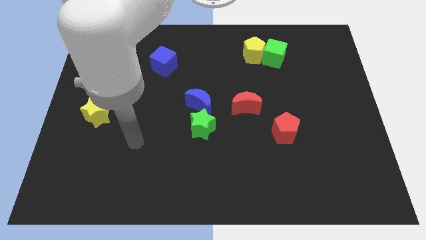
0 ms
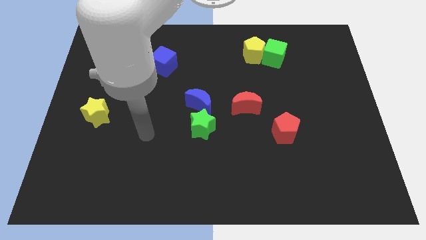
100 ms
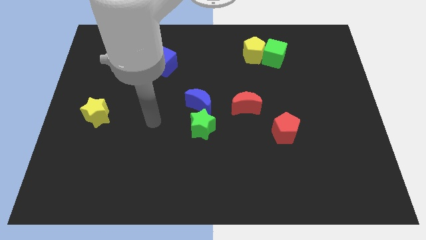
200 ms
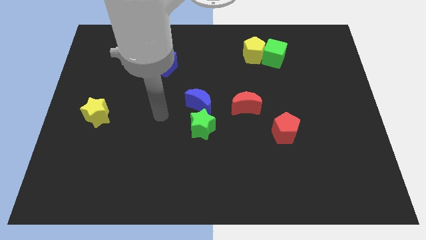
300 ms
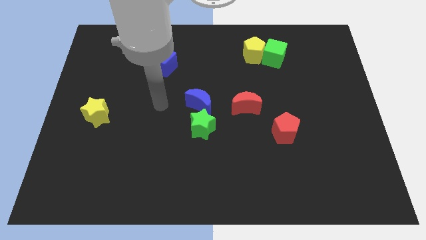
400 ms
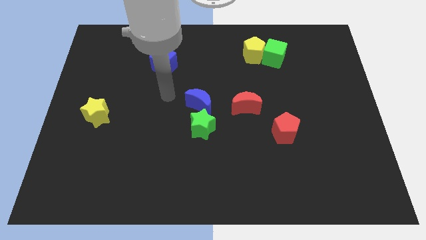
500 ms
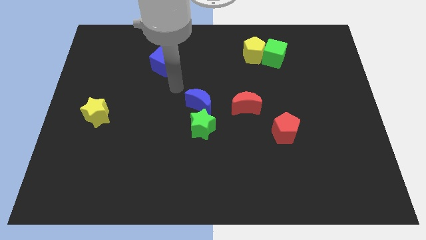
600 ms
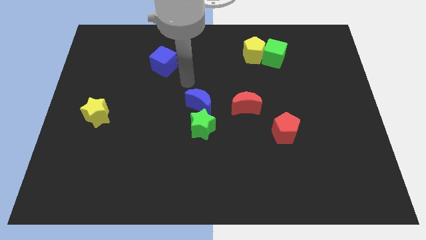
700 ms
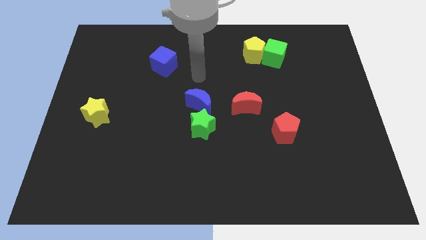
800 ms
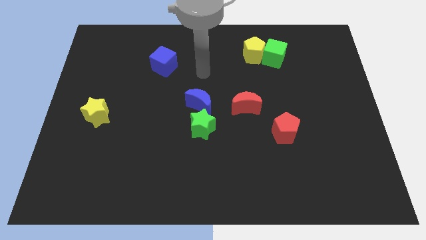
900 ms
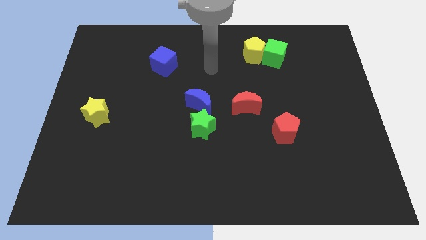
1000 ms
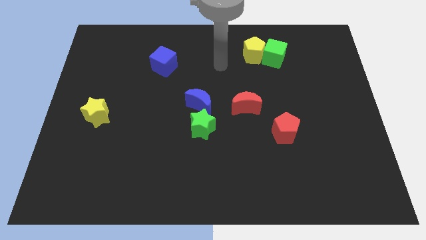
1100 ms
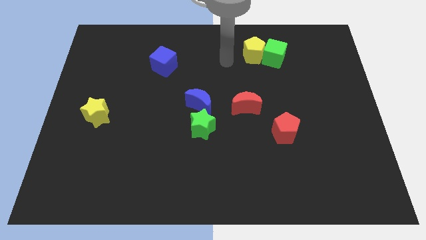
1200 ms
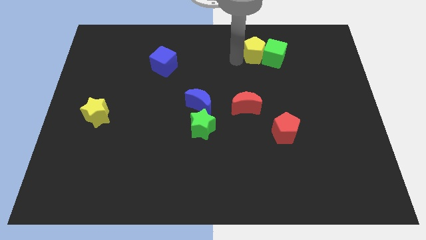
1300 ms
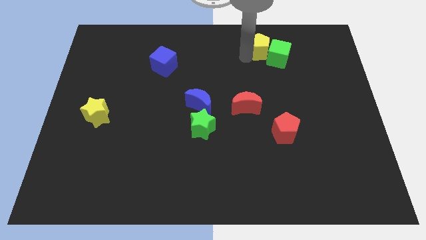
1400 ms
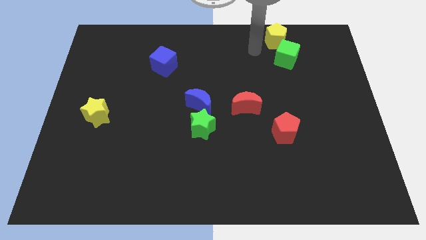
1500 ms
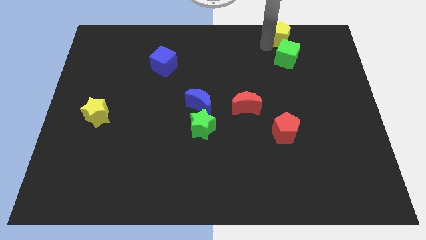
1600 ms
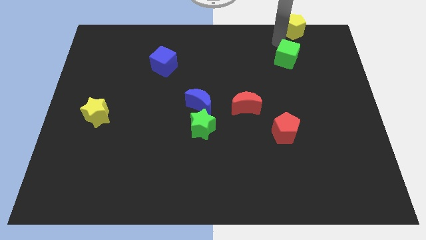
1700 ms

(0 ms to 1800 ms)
move the green cube away from the yellow pentagon

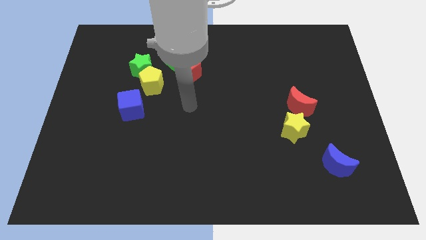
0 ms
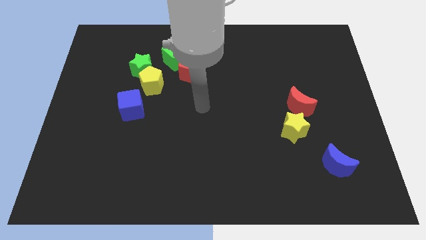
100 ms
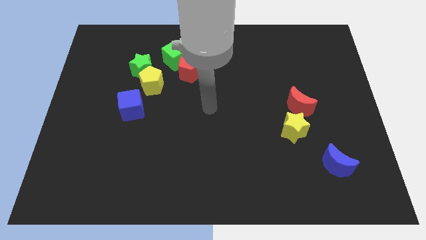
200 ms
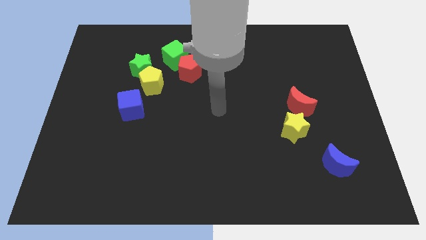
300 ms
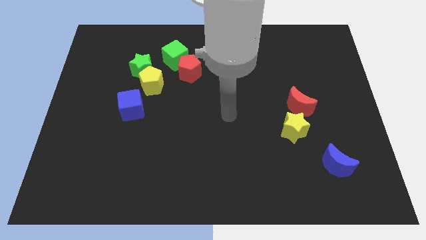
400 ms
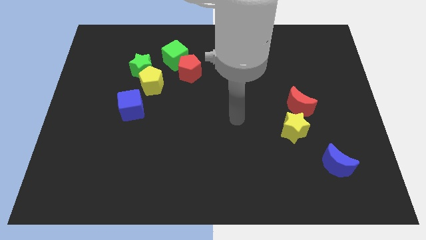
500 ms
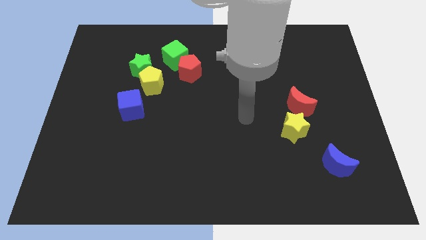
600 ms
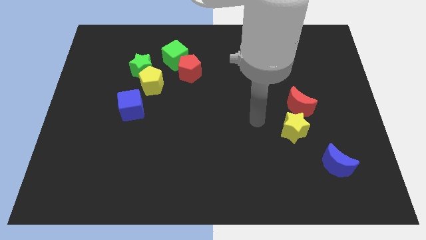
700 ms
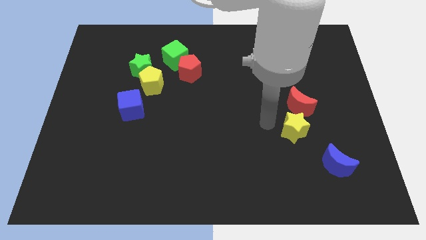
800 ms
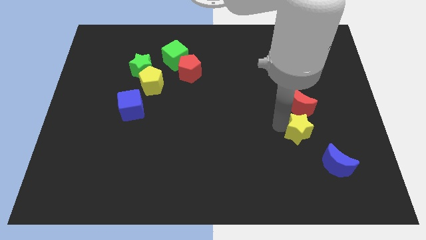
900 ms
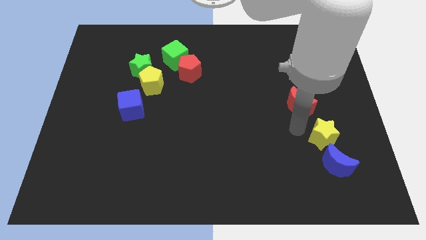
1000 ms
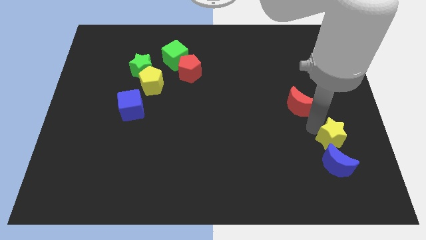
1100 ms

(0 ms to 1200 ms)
separate the red moon from the yellow star

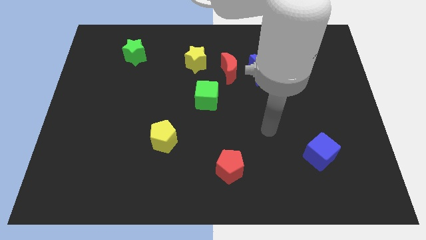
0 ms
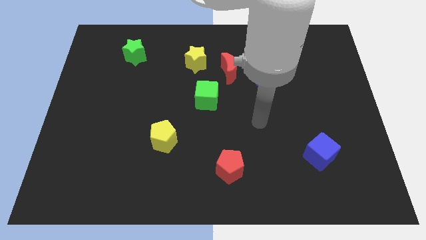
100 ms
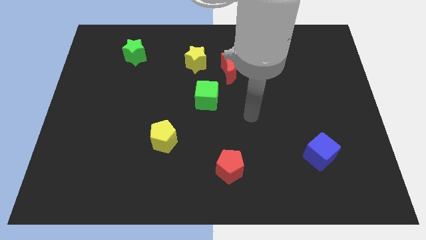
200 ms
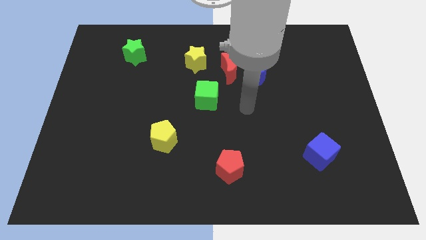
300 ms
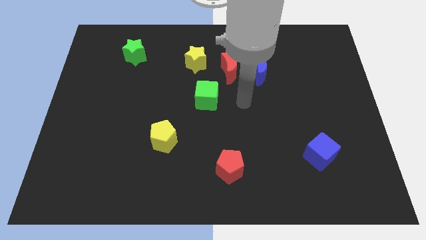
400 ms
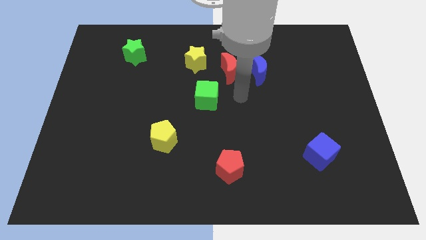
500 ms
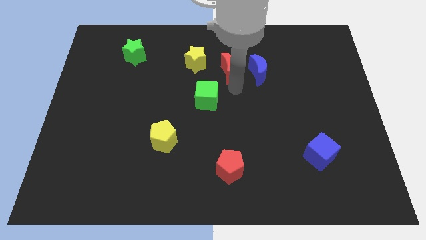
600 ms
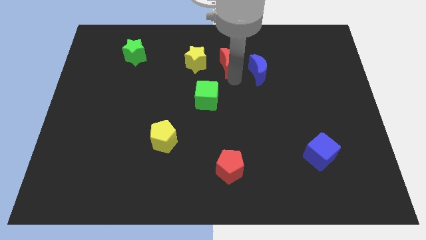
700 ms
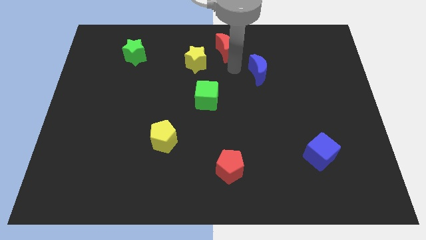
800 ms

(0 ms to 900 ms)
move the blue moon away from the red moon

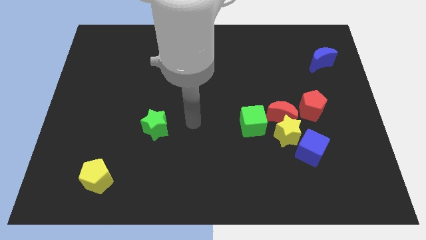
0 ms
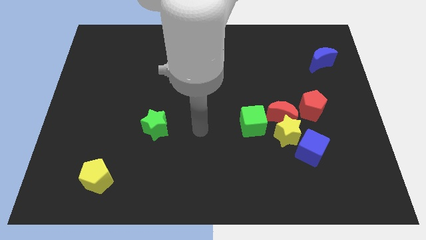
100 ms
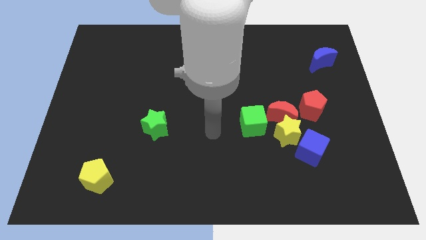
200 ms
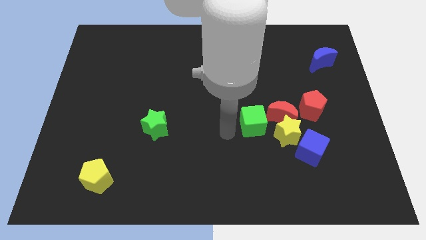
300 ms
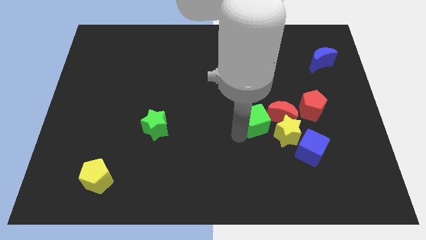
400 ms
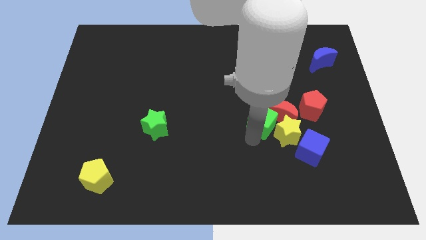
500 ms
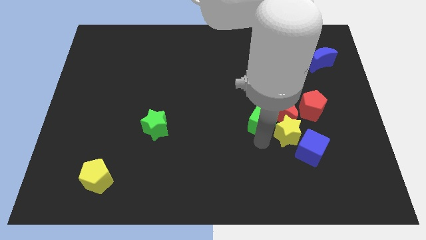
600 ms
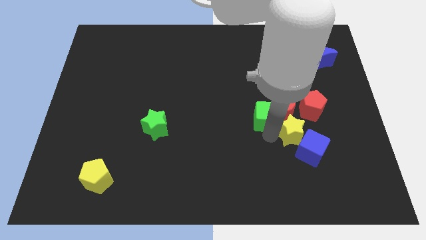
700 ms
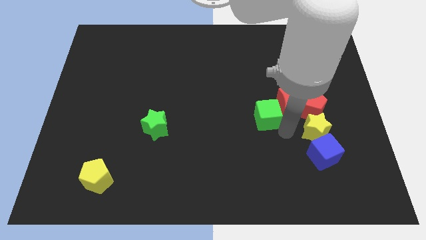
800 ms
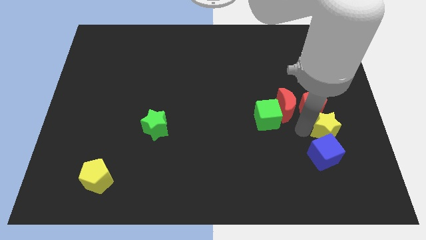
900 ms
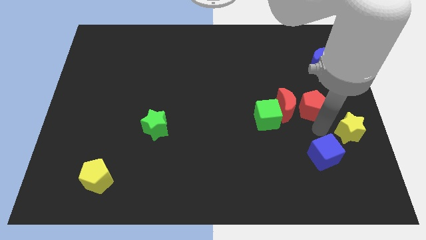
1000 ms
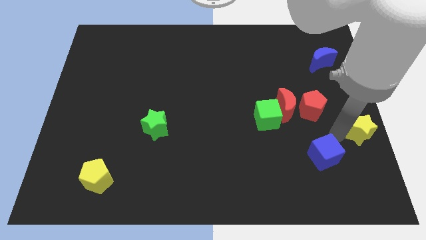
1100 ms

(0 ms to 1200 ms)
move the blue cube away from the yellow star

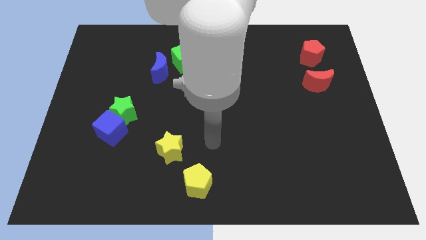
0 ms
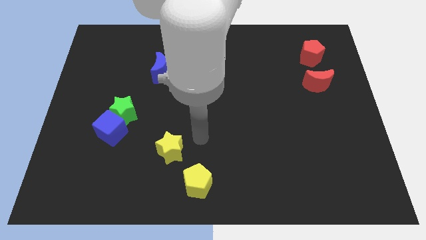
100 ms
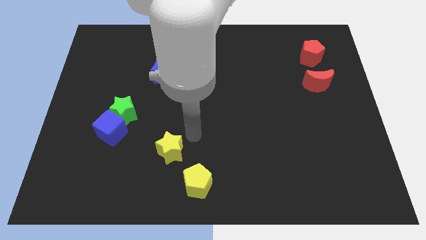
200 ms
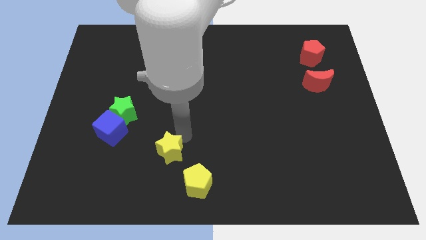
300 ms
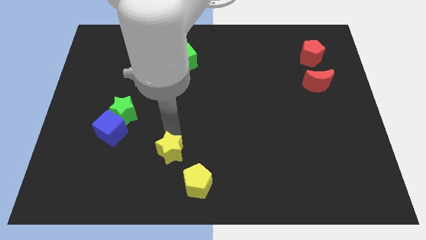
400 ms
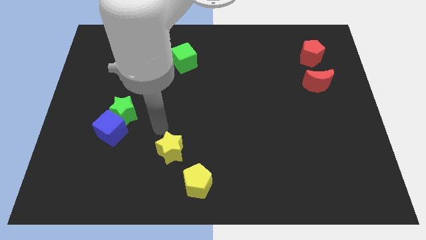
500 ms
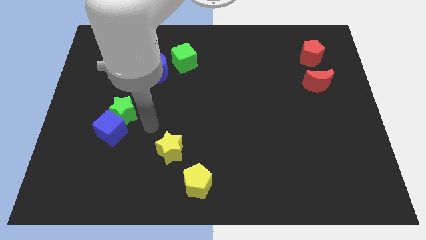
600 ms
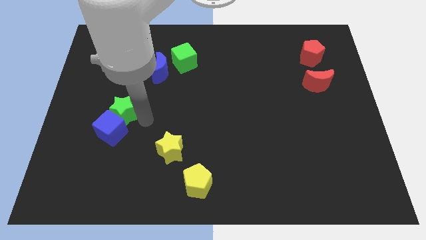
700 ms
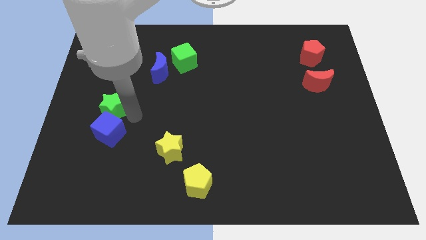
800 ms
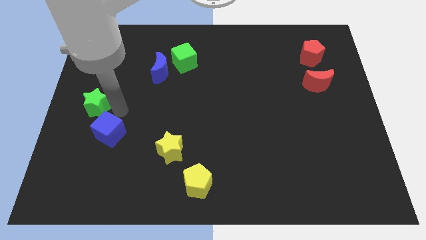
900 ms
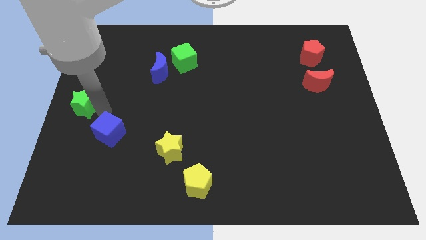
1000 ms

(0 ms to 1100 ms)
separate the blue cube from the green star

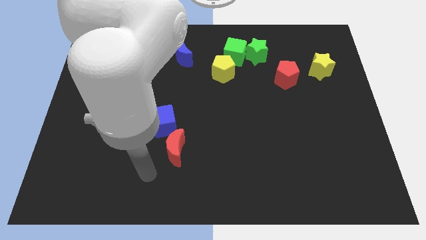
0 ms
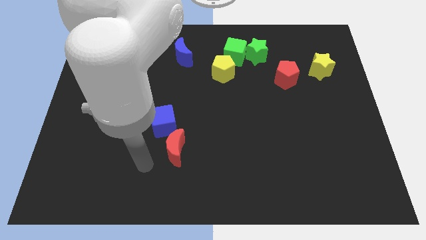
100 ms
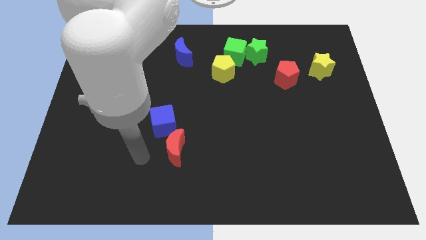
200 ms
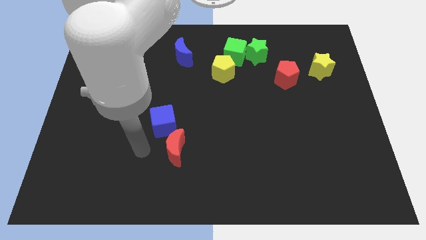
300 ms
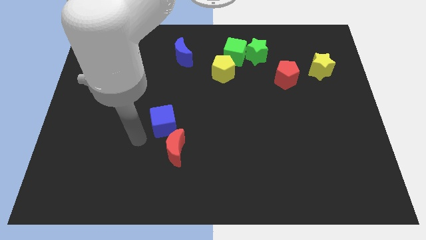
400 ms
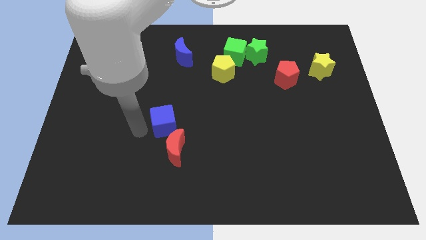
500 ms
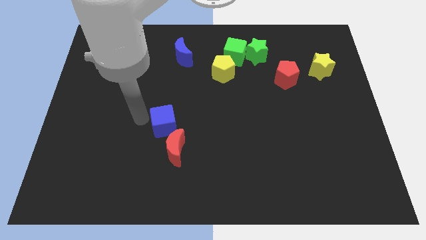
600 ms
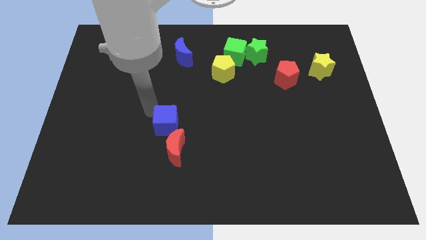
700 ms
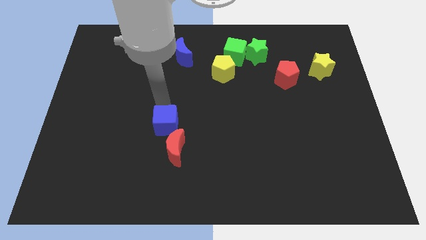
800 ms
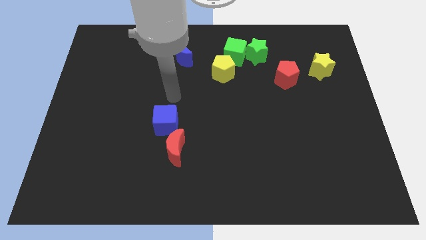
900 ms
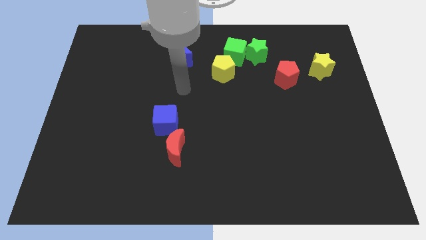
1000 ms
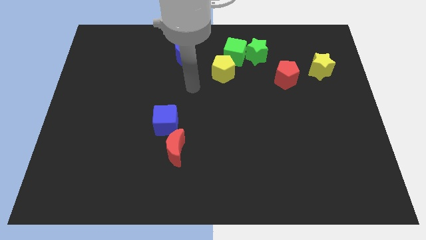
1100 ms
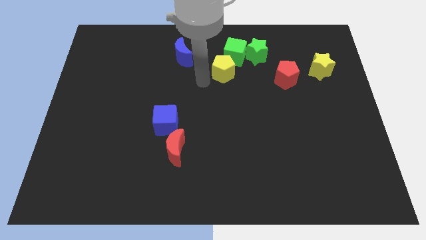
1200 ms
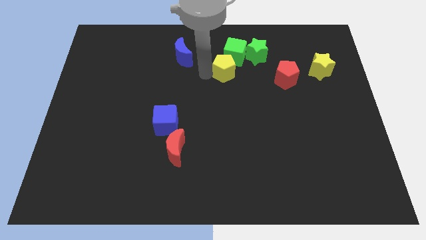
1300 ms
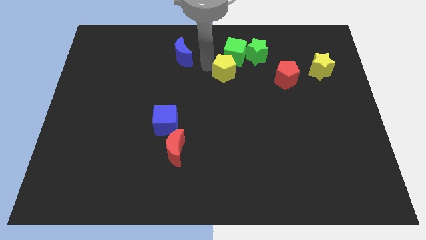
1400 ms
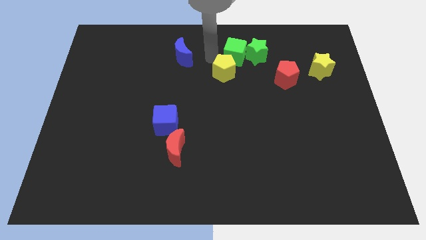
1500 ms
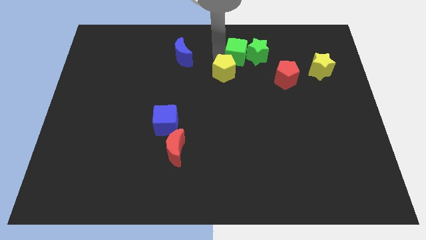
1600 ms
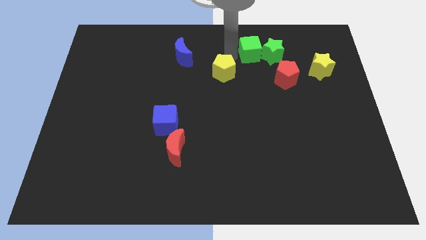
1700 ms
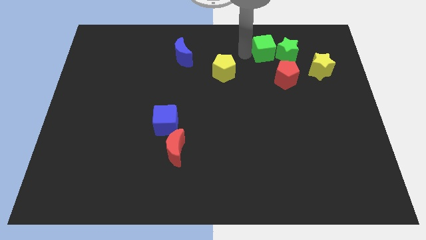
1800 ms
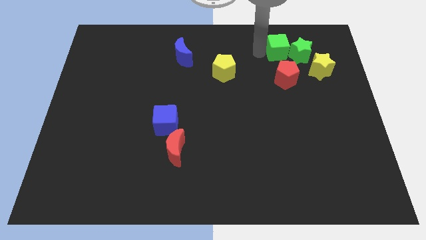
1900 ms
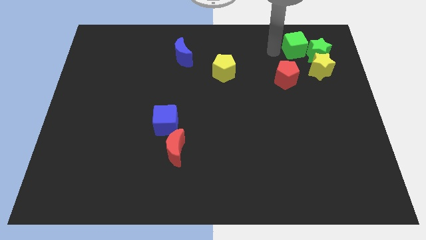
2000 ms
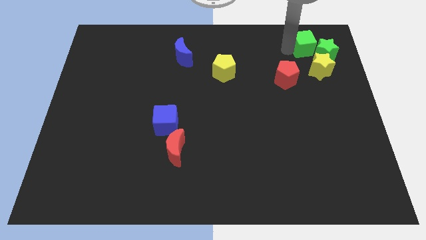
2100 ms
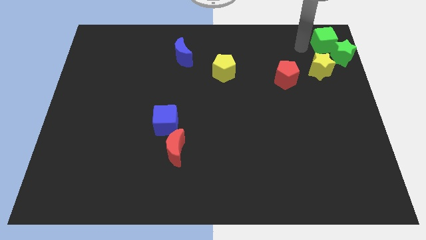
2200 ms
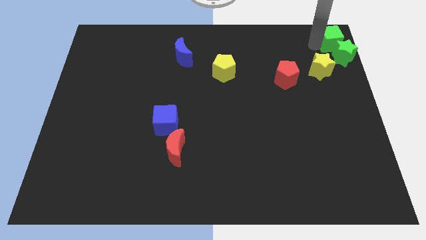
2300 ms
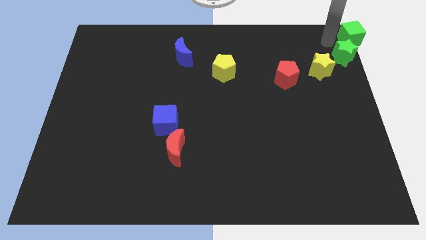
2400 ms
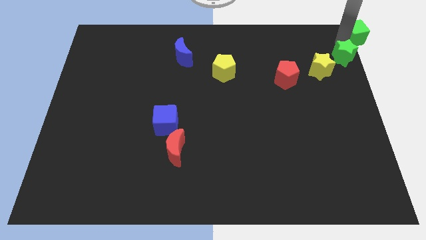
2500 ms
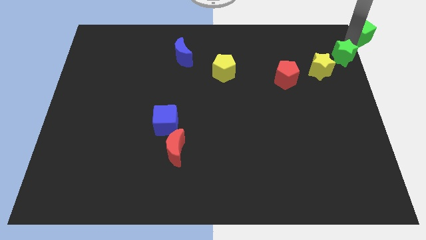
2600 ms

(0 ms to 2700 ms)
pull the green star apart from the green cube

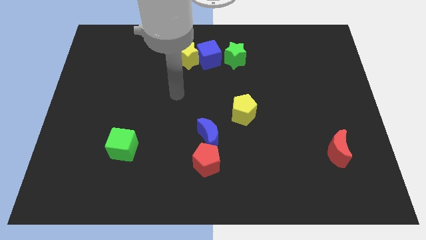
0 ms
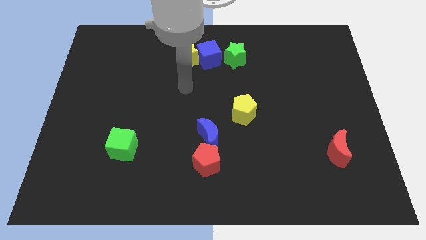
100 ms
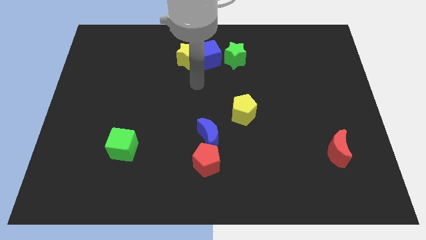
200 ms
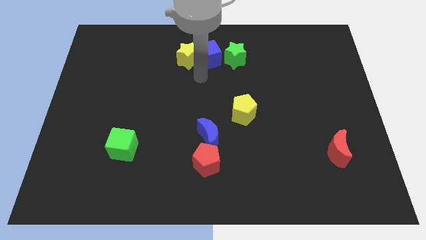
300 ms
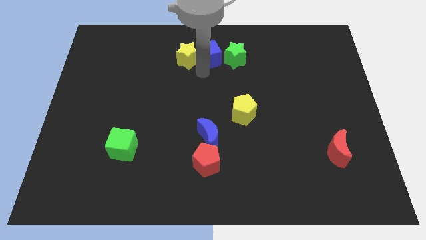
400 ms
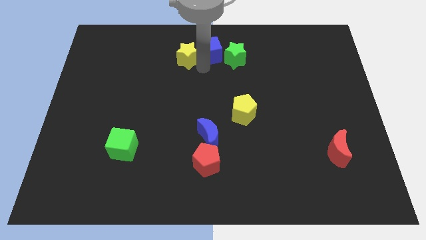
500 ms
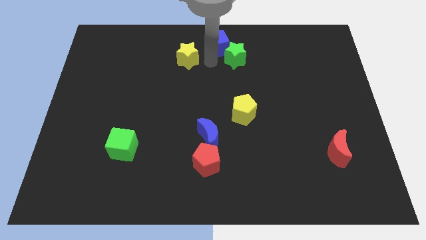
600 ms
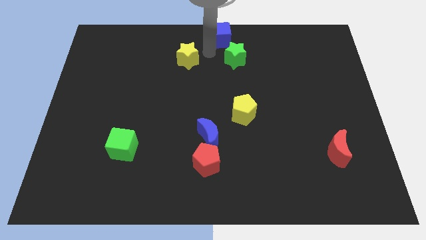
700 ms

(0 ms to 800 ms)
pull the yellow star apart from the blue cube
